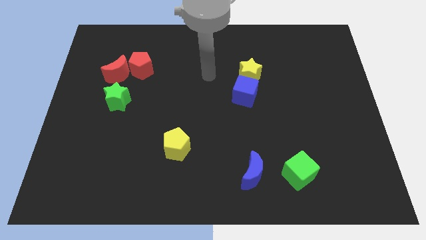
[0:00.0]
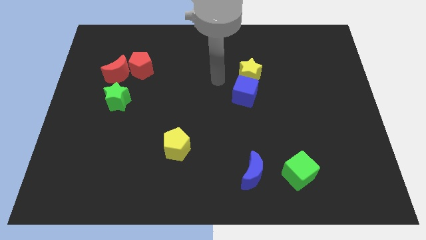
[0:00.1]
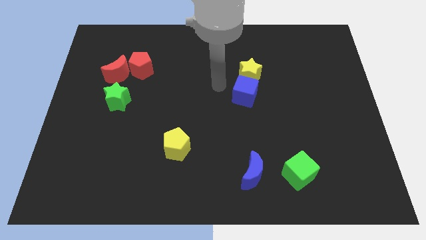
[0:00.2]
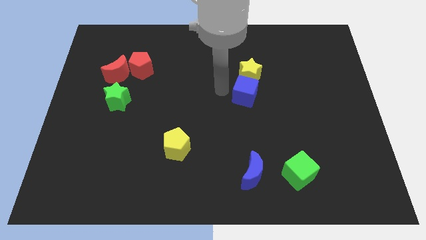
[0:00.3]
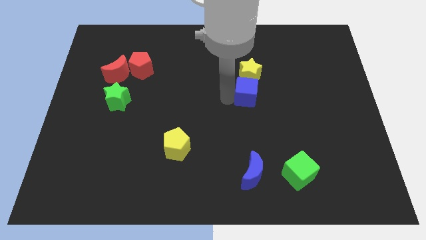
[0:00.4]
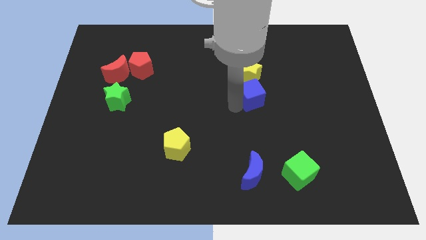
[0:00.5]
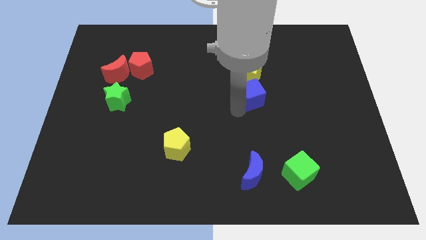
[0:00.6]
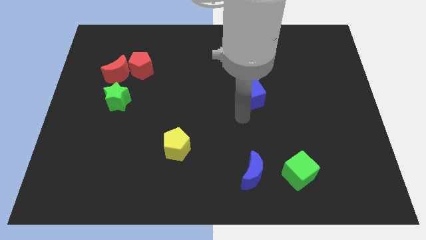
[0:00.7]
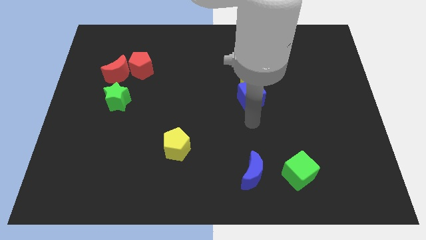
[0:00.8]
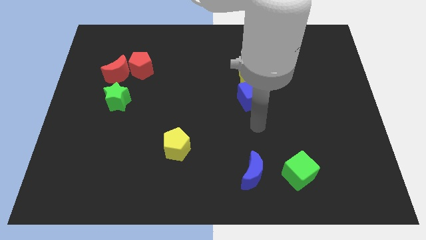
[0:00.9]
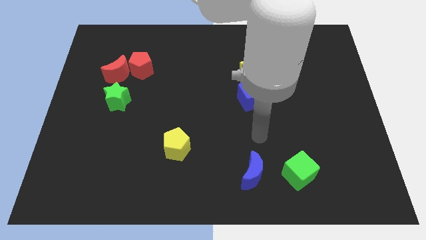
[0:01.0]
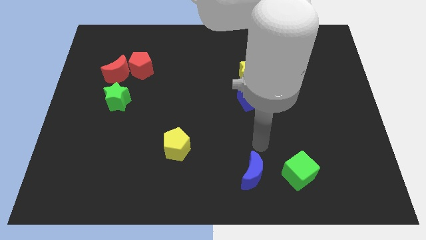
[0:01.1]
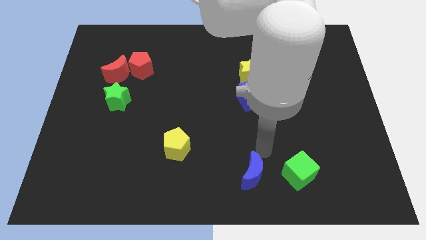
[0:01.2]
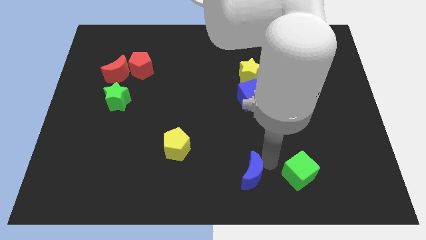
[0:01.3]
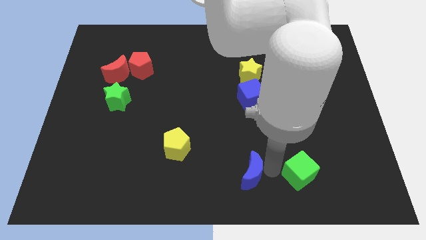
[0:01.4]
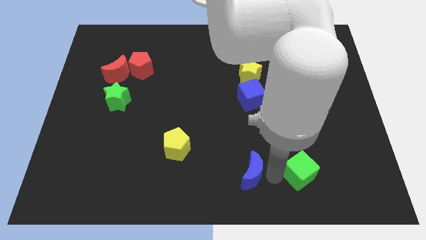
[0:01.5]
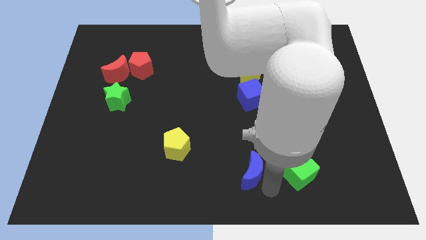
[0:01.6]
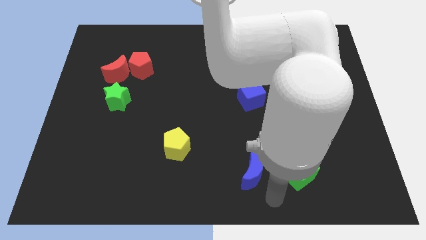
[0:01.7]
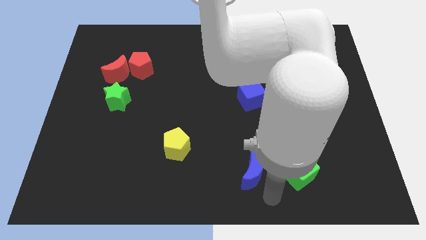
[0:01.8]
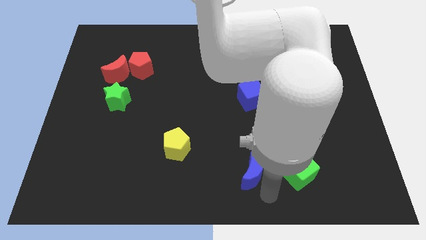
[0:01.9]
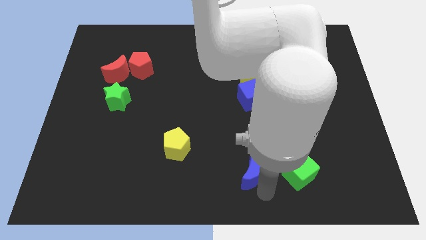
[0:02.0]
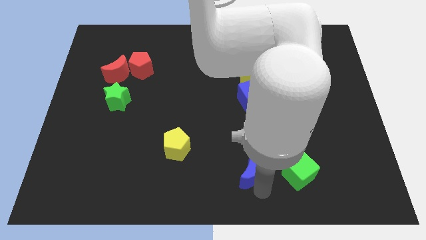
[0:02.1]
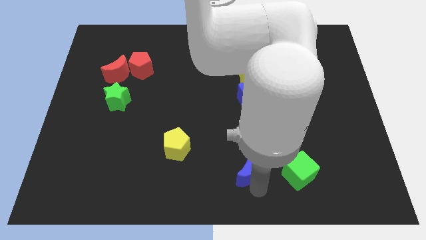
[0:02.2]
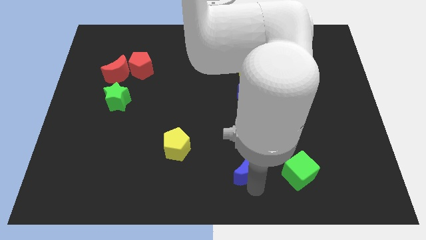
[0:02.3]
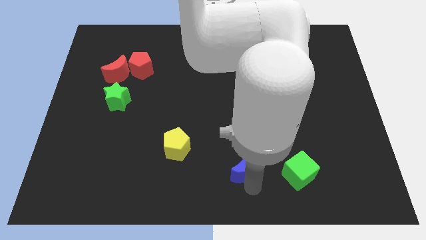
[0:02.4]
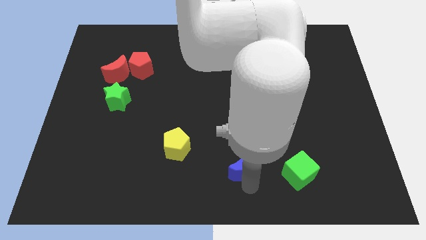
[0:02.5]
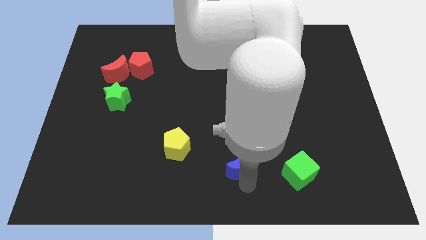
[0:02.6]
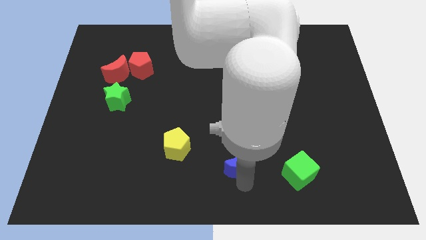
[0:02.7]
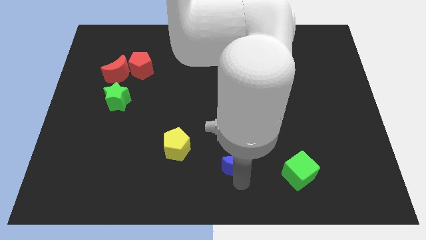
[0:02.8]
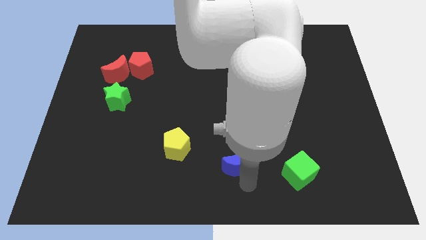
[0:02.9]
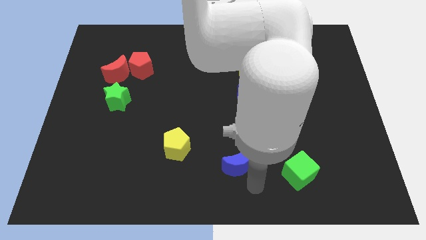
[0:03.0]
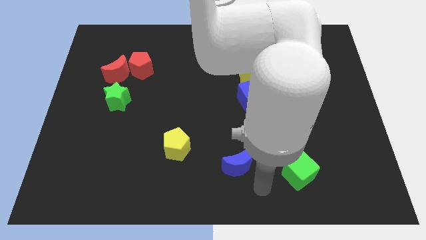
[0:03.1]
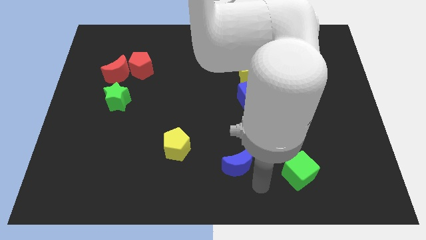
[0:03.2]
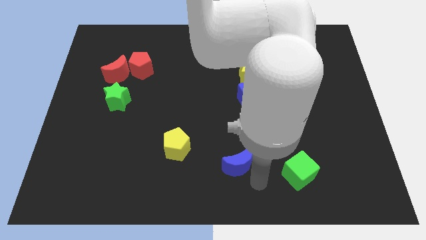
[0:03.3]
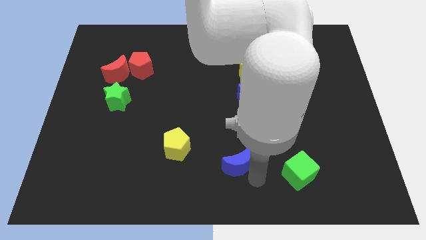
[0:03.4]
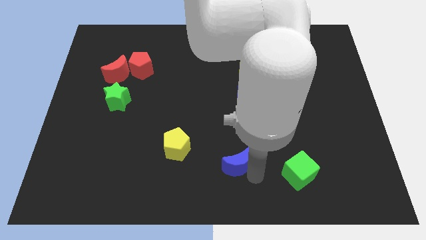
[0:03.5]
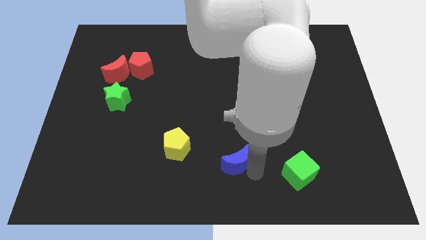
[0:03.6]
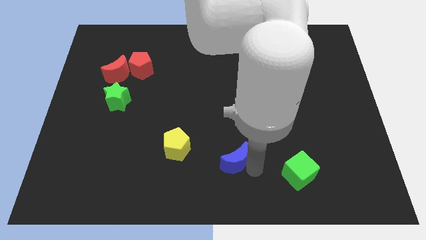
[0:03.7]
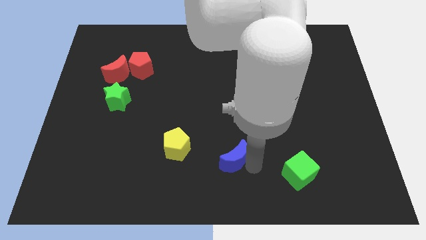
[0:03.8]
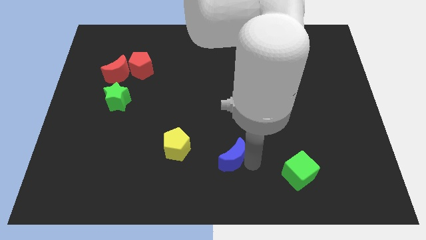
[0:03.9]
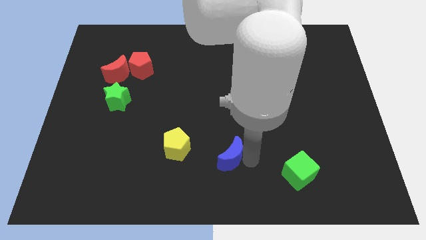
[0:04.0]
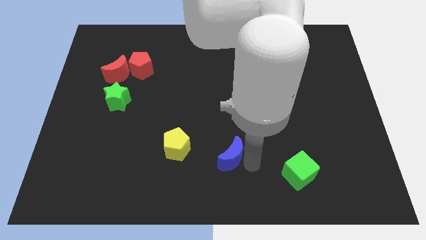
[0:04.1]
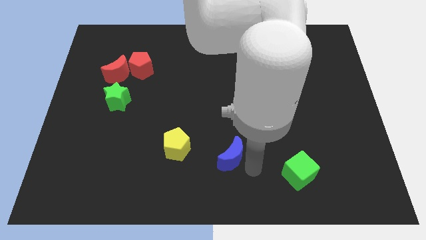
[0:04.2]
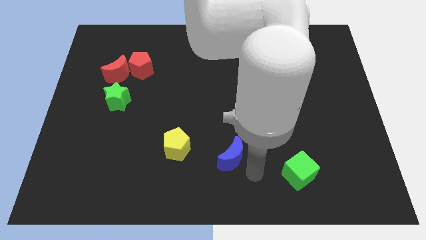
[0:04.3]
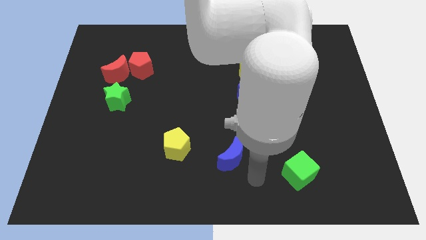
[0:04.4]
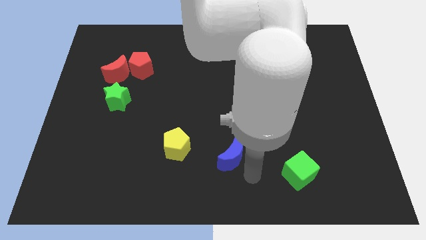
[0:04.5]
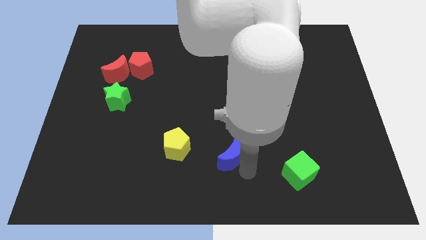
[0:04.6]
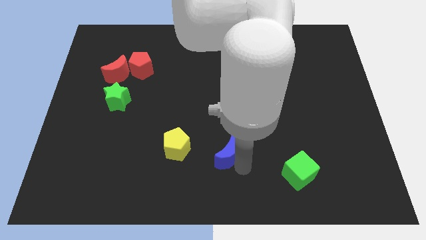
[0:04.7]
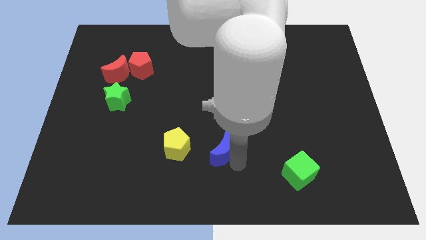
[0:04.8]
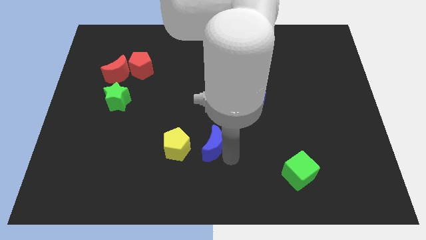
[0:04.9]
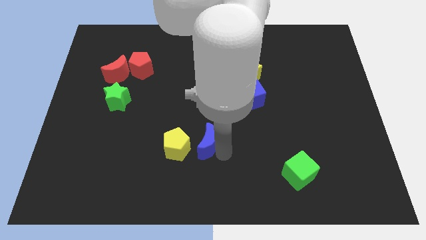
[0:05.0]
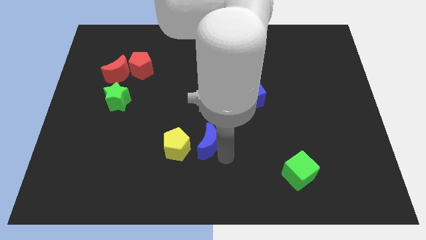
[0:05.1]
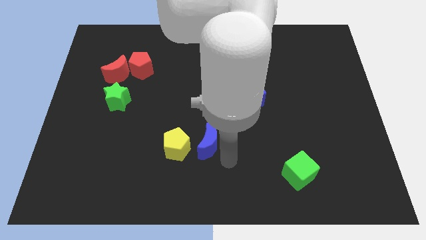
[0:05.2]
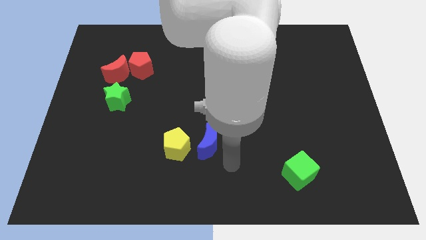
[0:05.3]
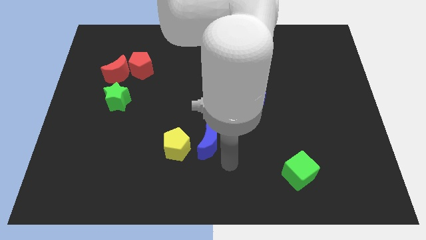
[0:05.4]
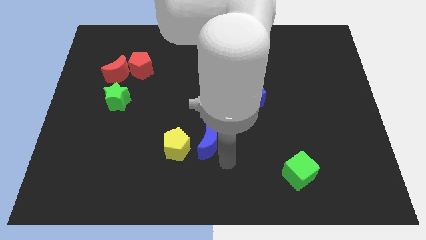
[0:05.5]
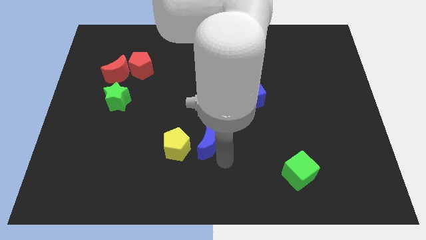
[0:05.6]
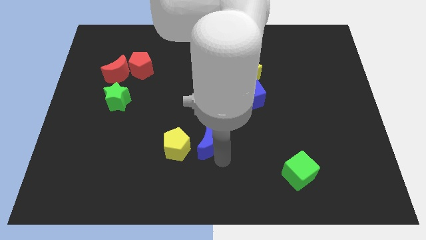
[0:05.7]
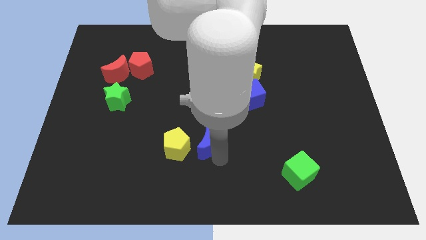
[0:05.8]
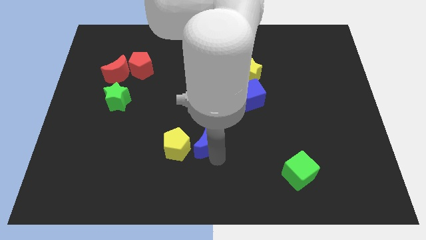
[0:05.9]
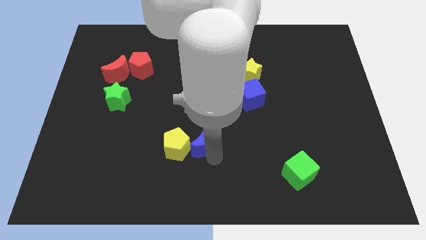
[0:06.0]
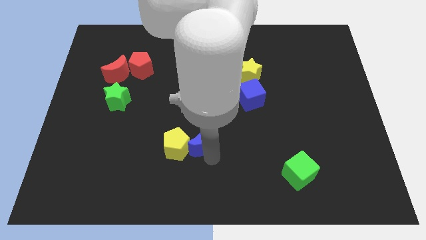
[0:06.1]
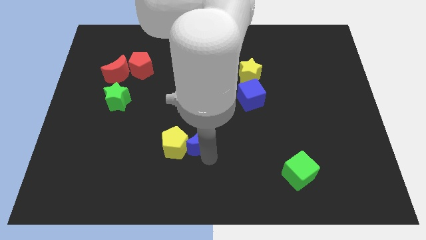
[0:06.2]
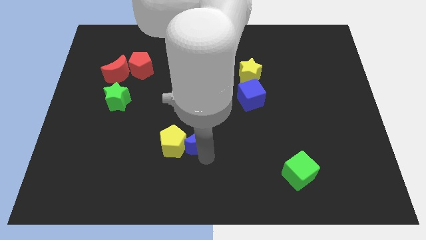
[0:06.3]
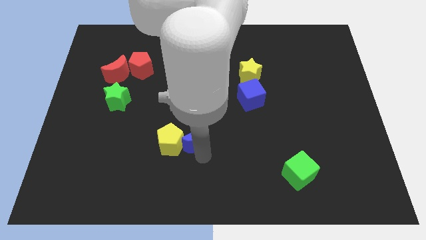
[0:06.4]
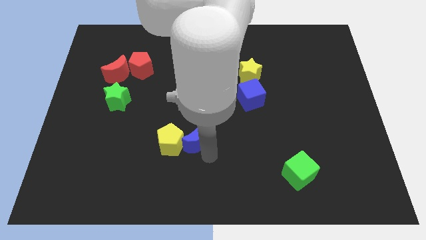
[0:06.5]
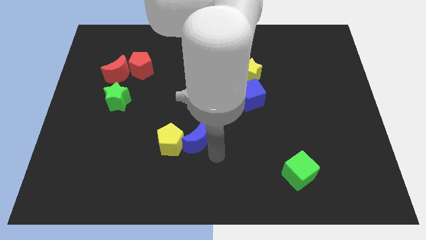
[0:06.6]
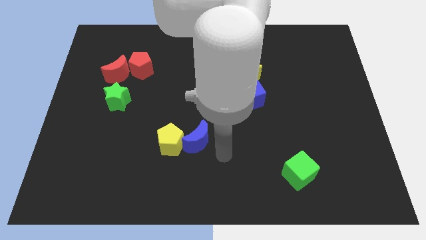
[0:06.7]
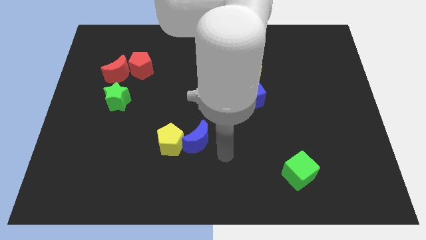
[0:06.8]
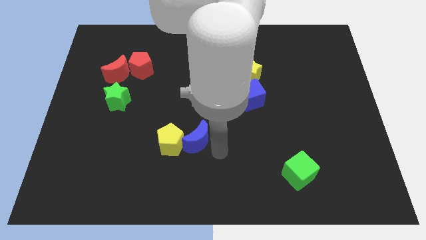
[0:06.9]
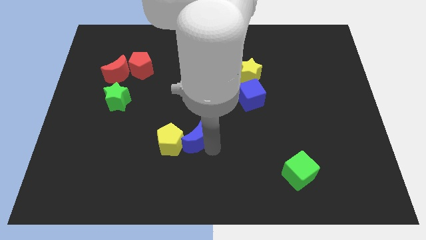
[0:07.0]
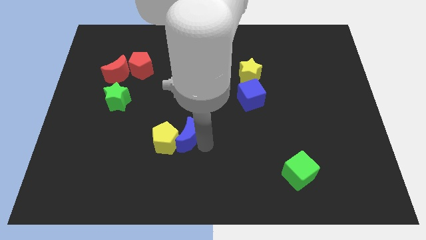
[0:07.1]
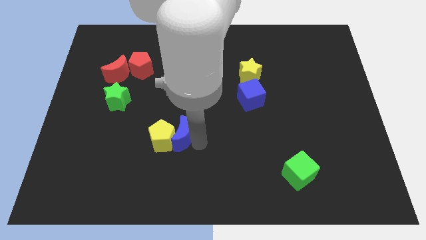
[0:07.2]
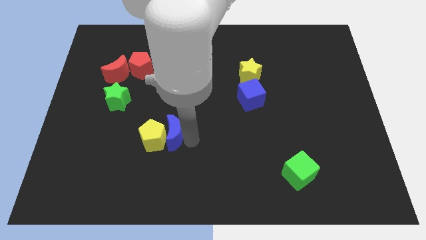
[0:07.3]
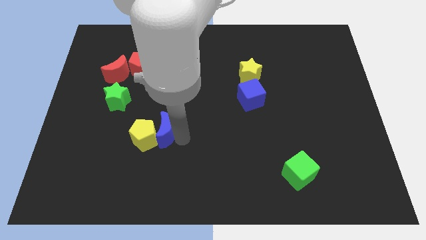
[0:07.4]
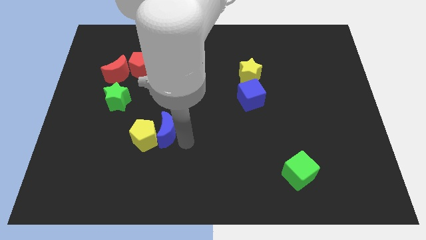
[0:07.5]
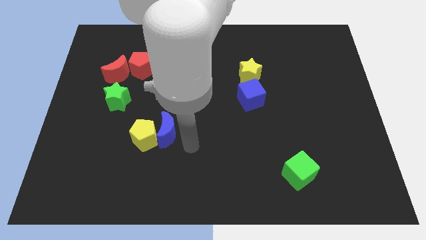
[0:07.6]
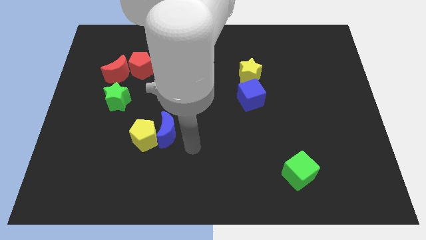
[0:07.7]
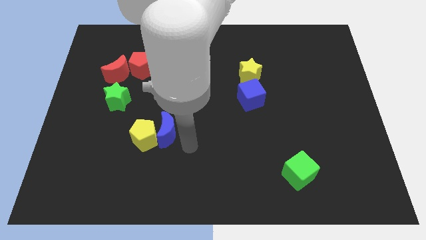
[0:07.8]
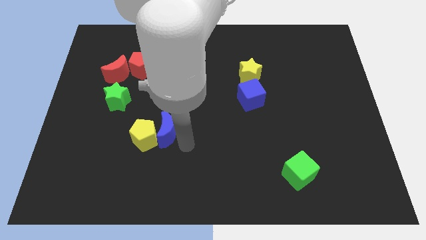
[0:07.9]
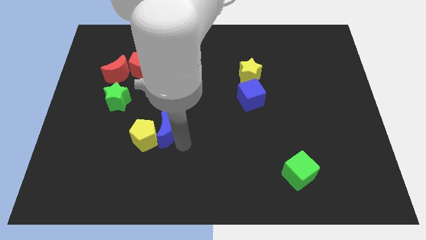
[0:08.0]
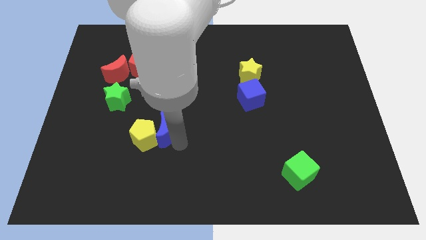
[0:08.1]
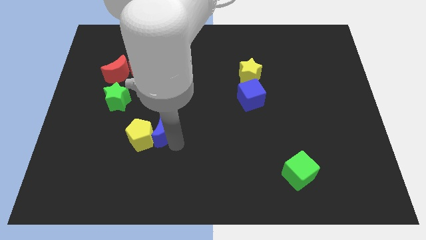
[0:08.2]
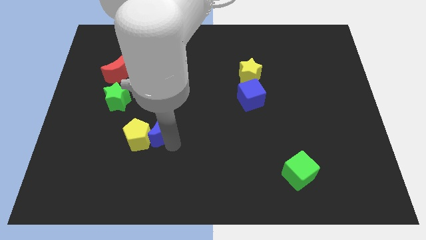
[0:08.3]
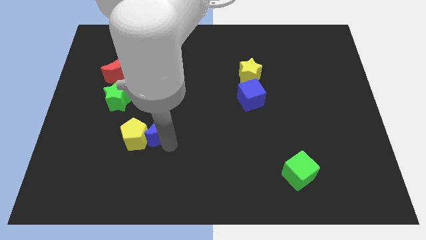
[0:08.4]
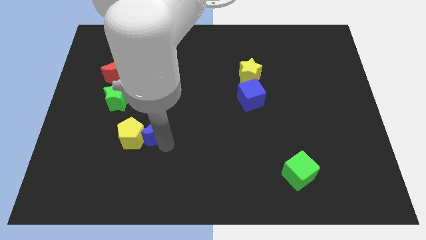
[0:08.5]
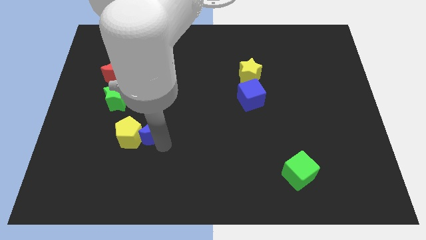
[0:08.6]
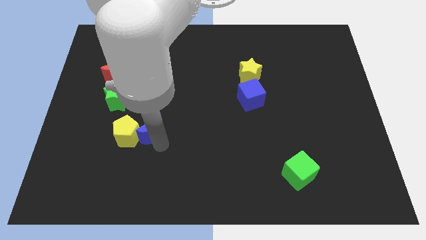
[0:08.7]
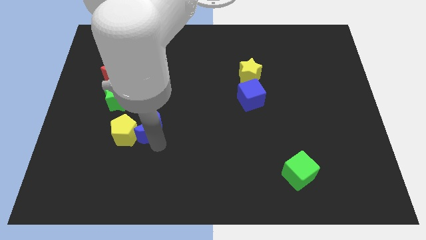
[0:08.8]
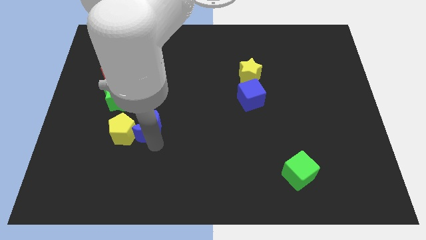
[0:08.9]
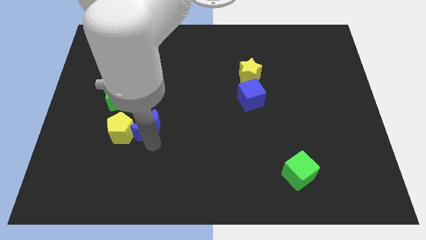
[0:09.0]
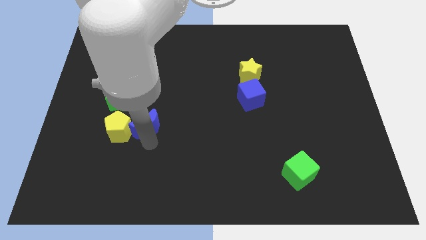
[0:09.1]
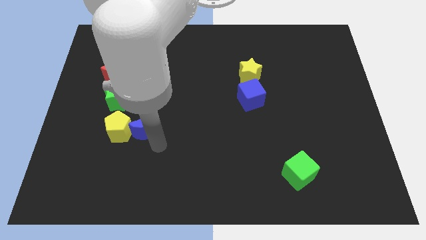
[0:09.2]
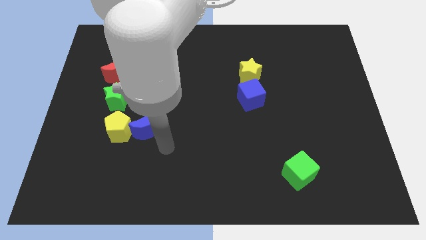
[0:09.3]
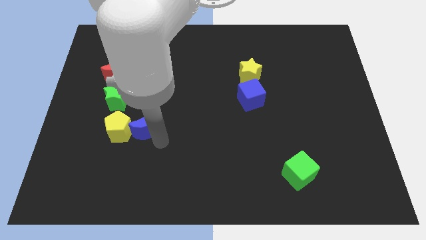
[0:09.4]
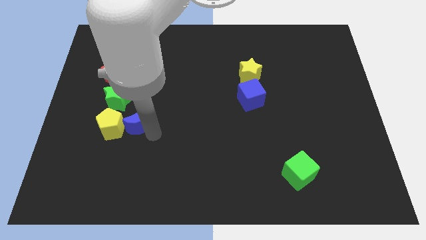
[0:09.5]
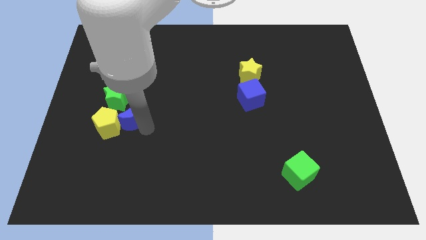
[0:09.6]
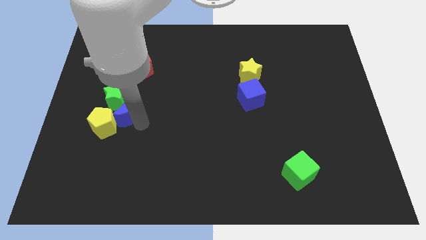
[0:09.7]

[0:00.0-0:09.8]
slide the blue moon close to the green star
